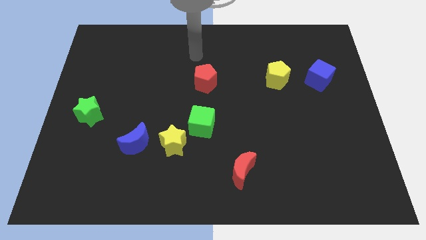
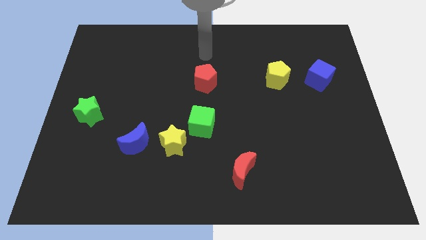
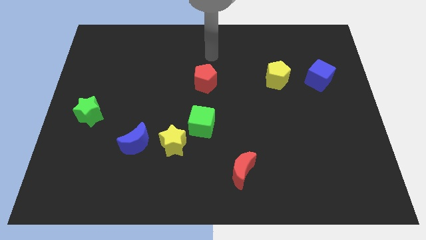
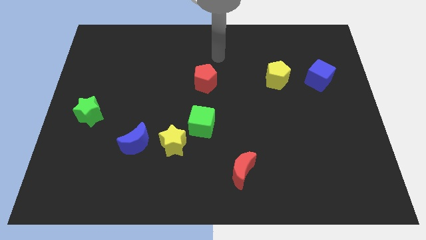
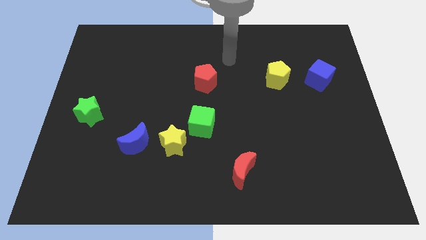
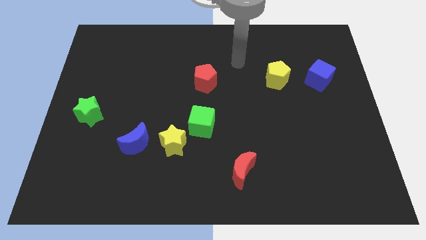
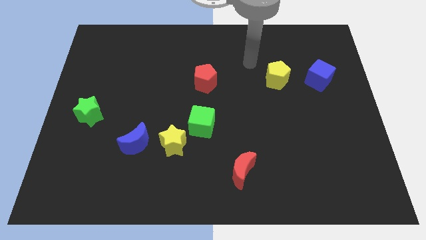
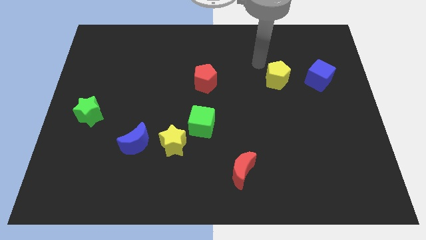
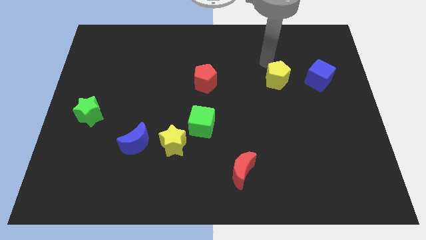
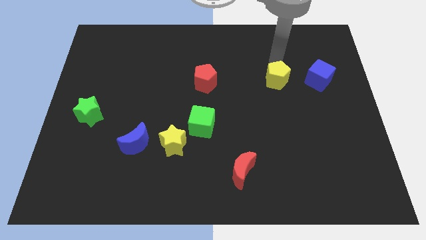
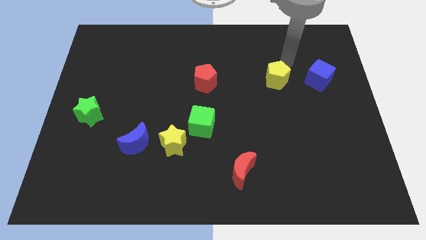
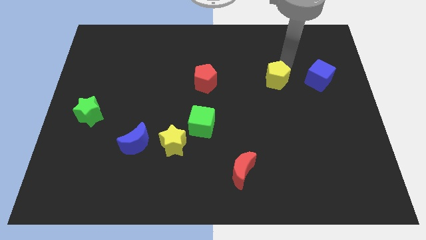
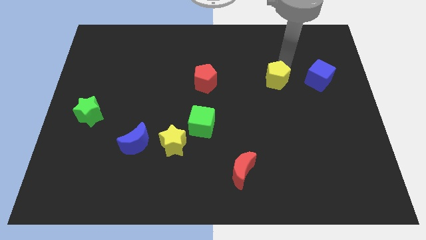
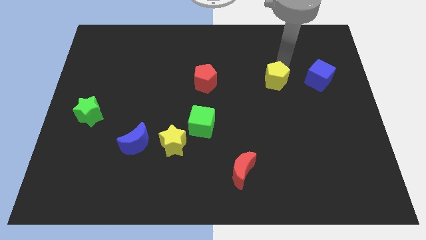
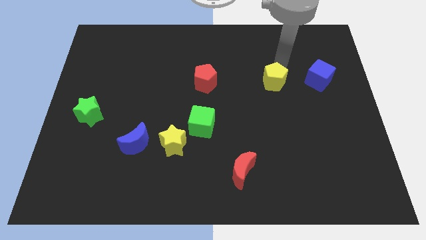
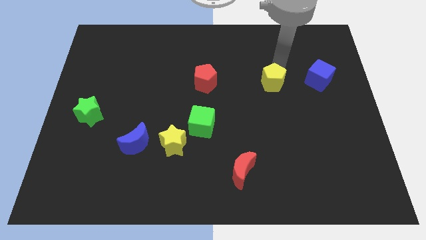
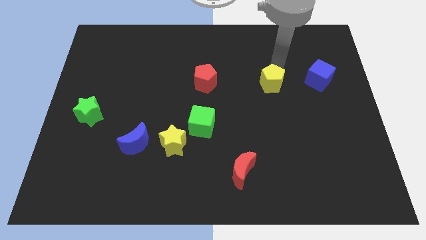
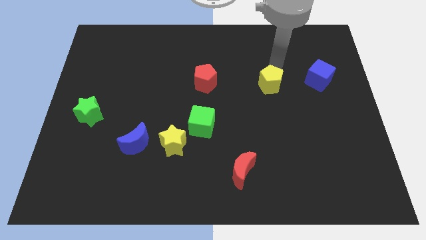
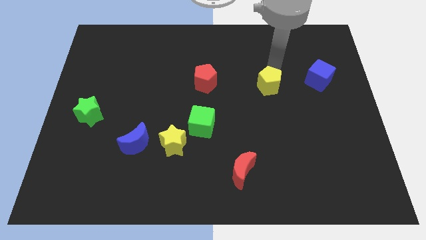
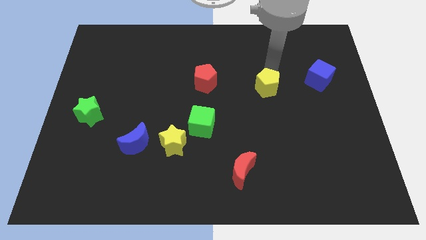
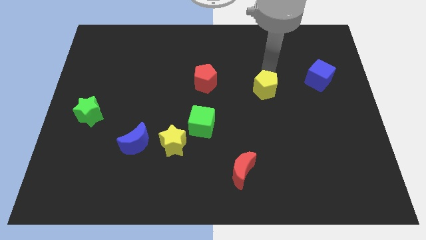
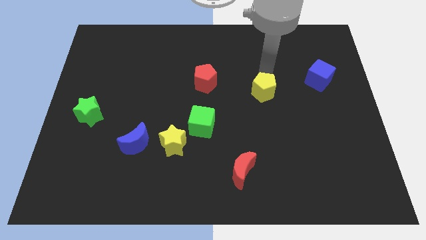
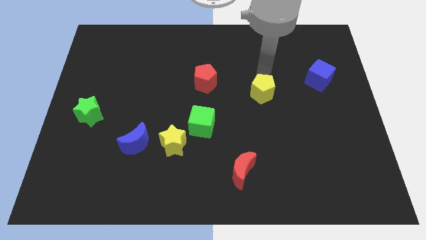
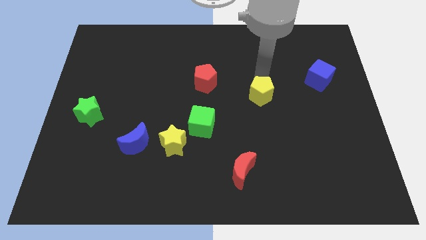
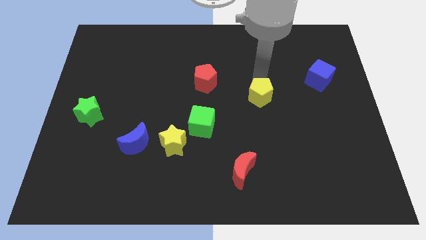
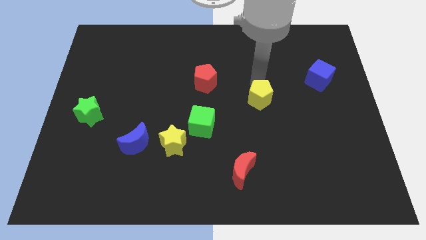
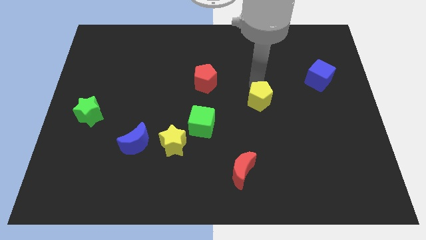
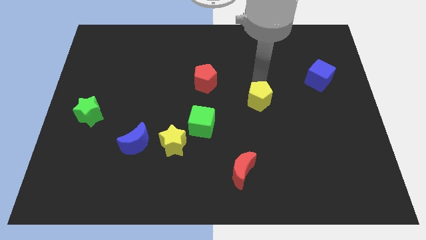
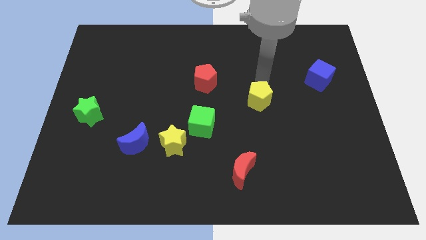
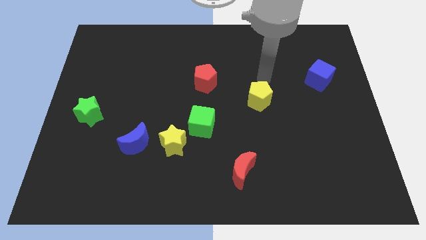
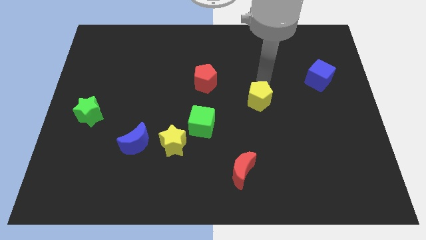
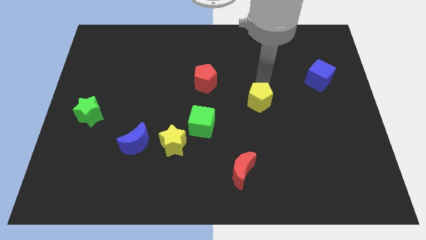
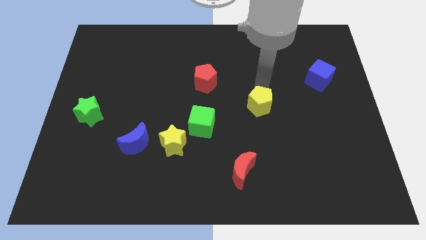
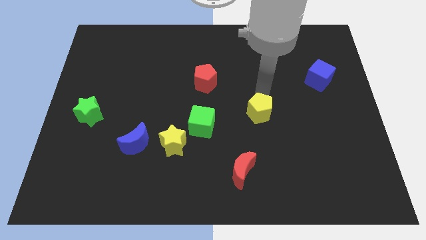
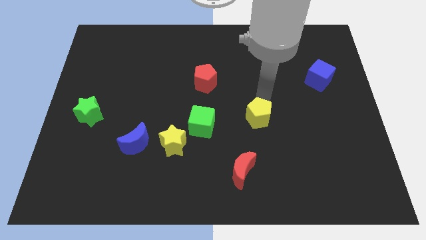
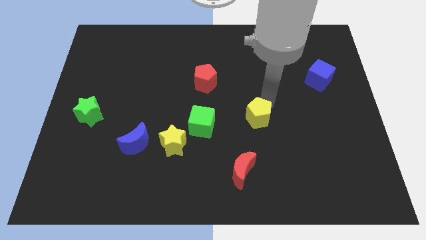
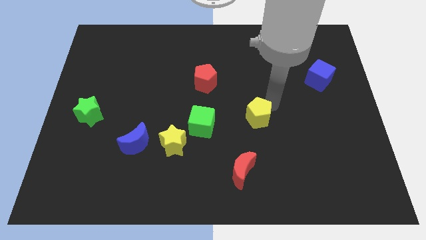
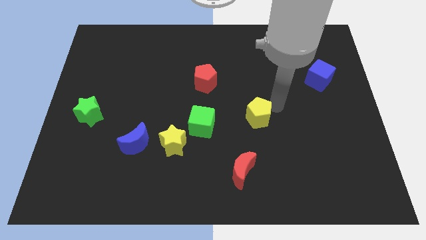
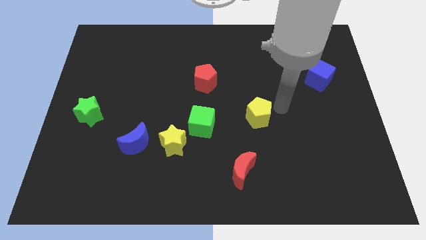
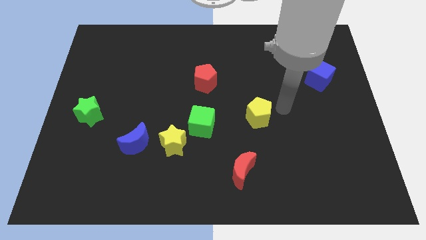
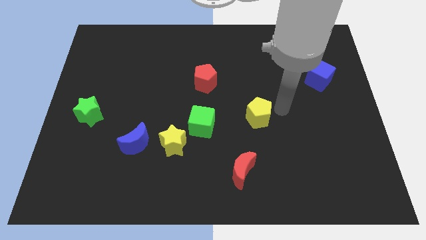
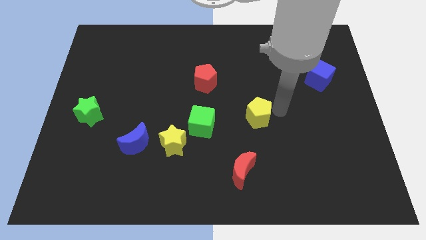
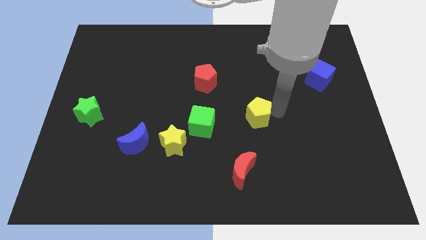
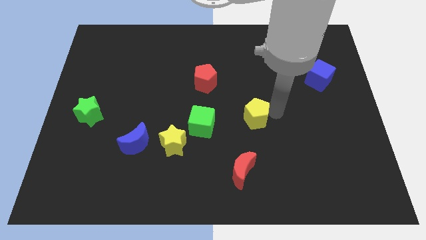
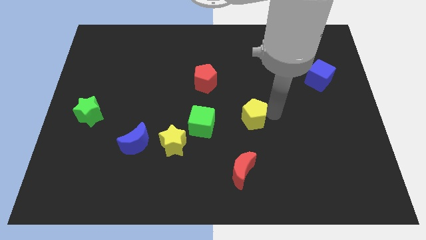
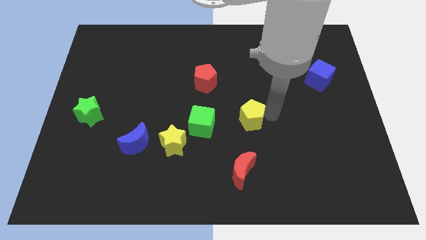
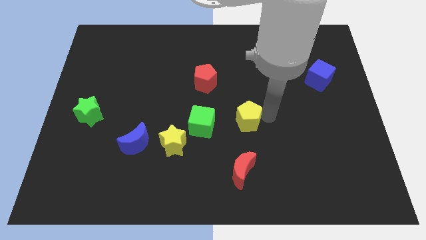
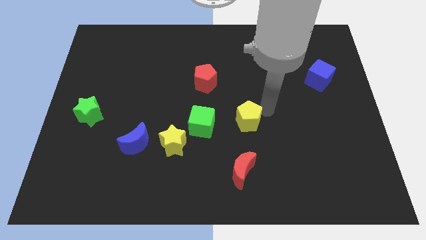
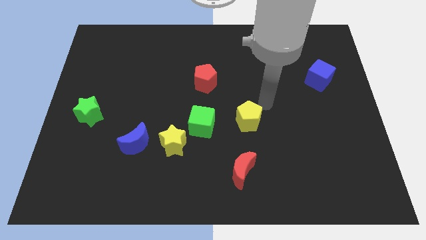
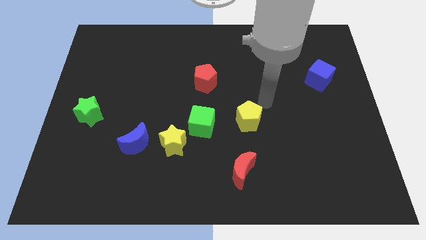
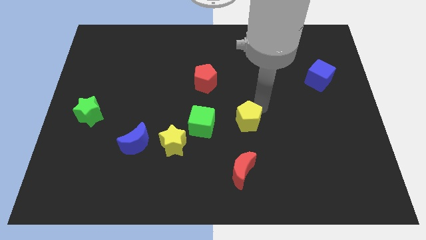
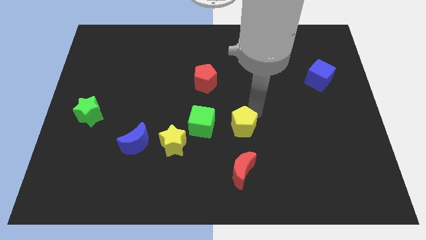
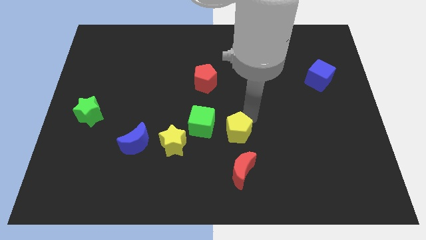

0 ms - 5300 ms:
push the yellow pentagon right of the yellow star

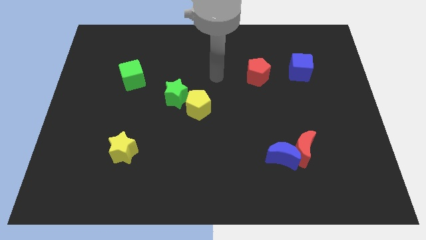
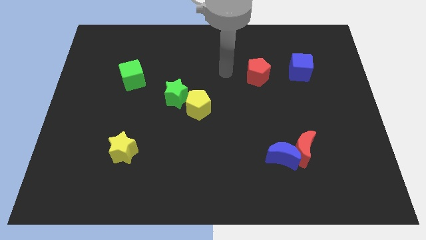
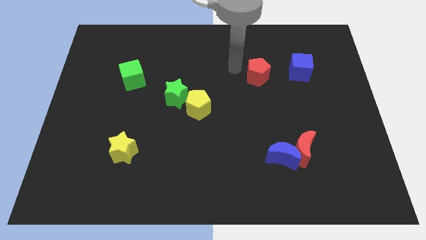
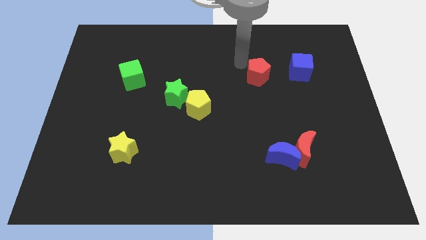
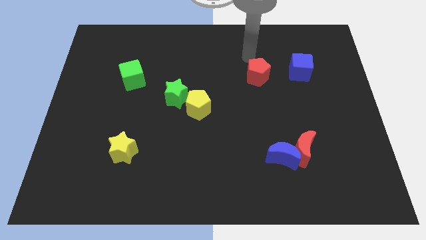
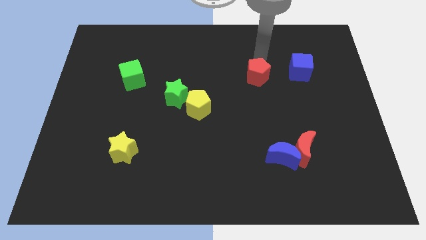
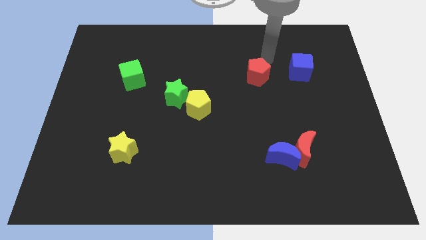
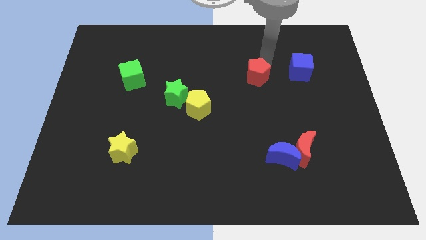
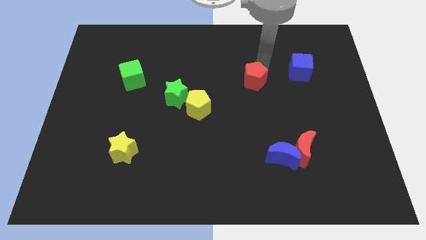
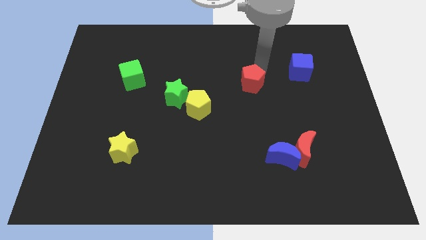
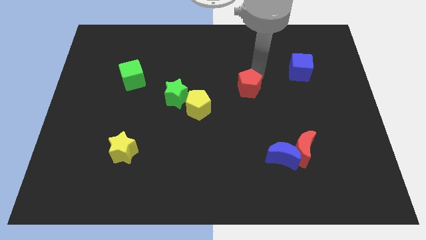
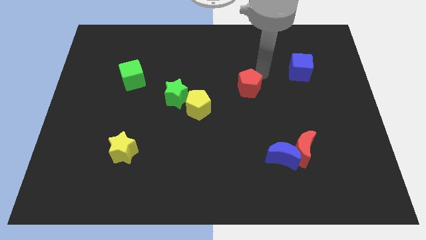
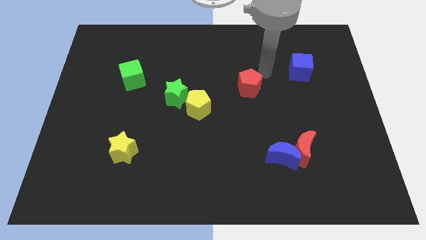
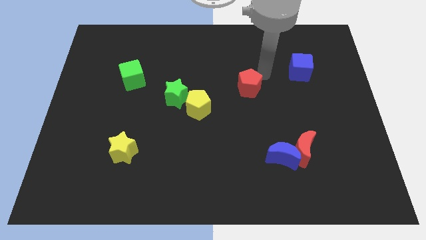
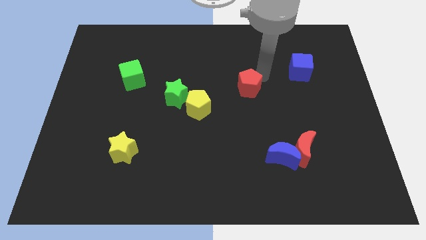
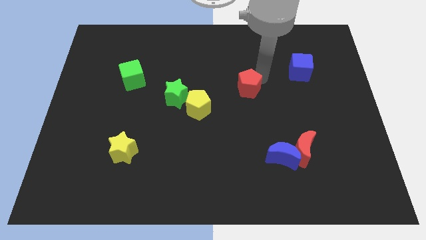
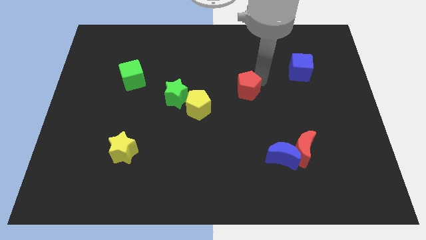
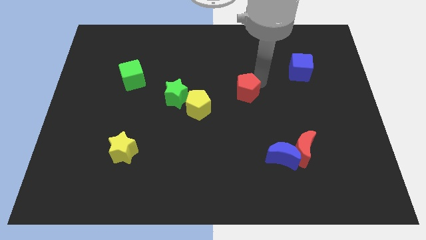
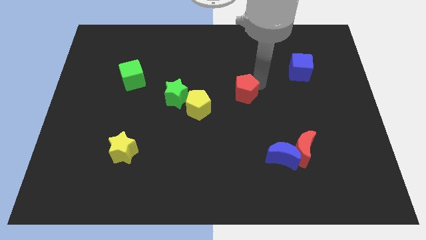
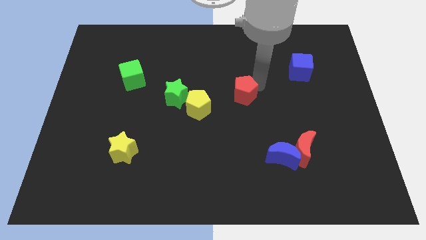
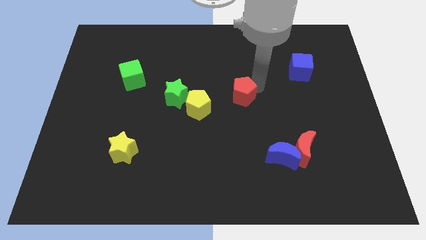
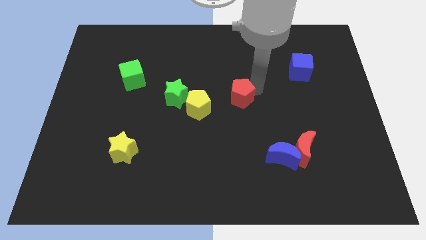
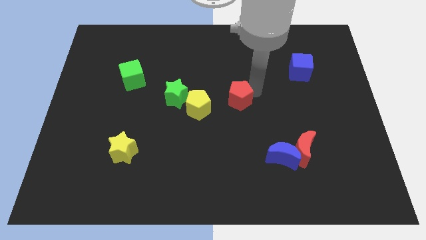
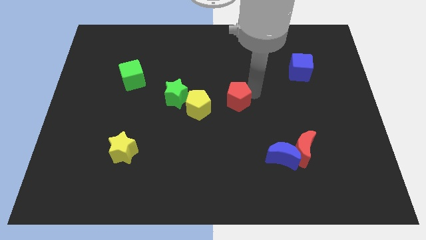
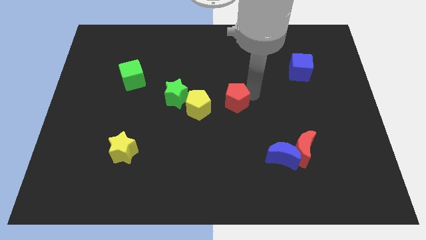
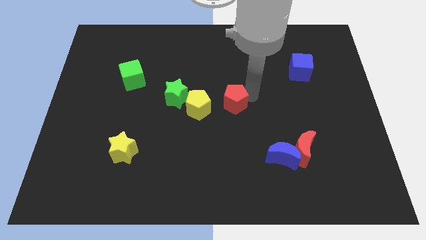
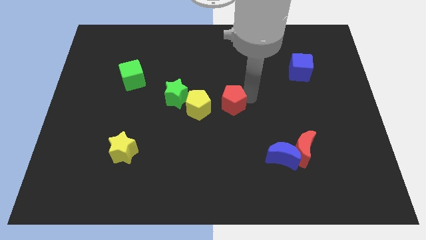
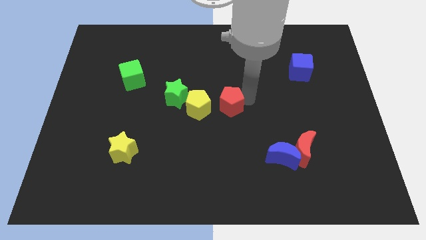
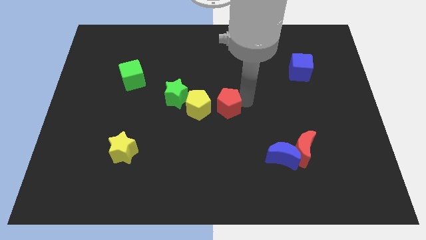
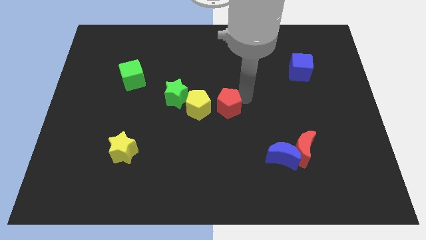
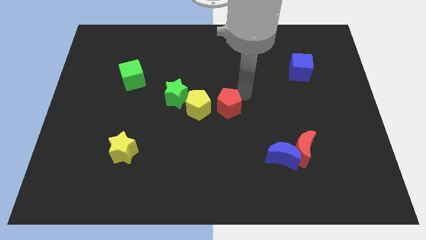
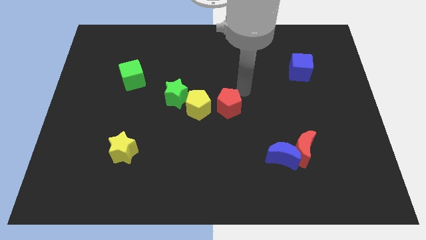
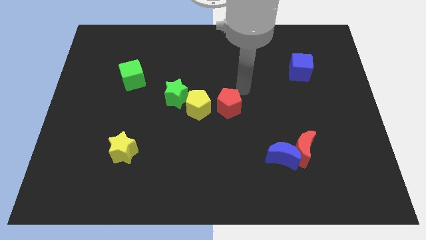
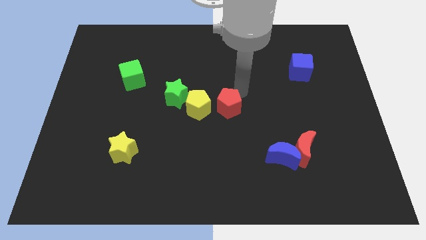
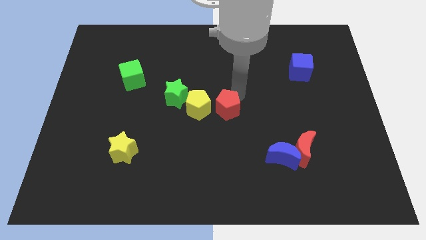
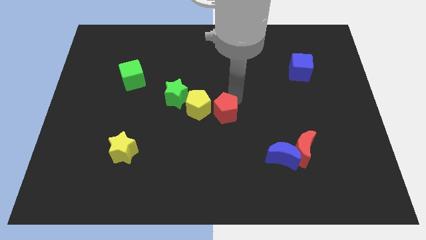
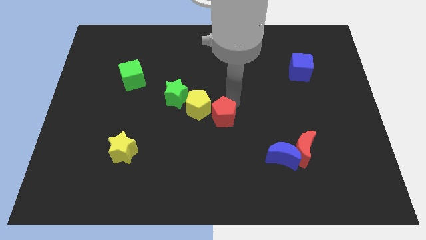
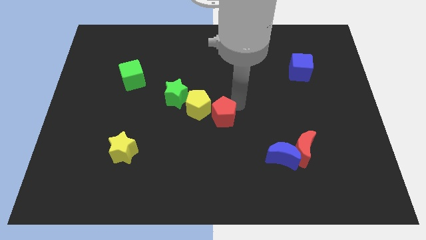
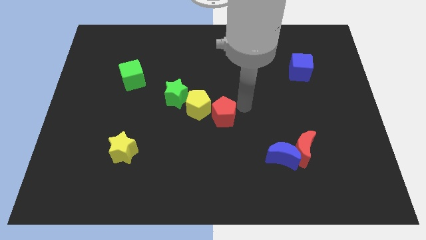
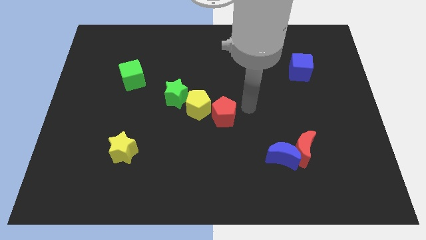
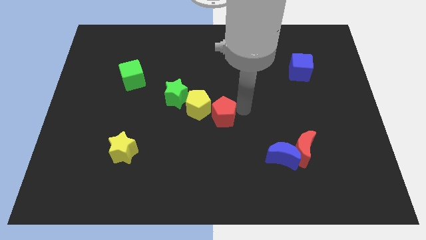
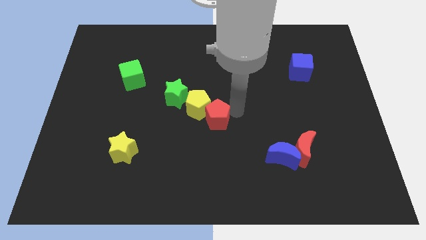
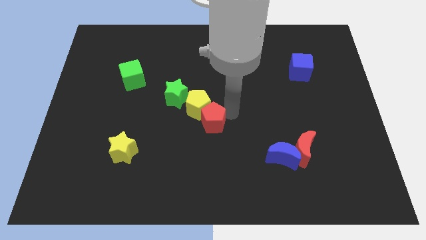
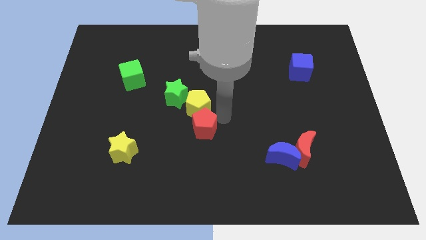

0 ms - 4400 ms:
slide the red pentagon to the bottom left side of the yellow pentagon
